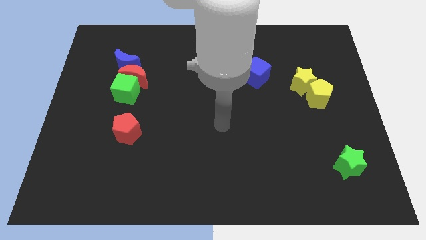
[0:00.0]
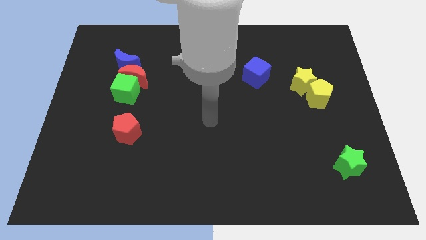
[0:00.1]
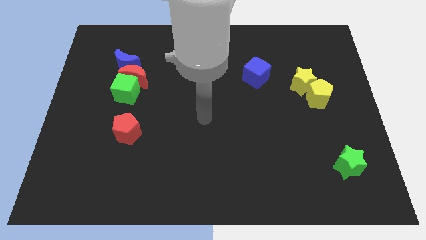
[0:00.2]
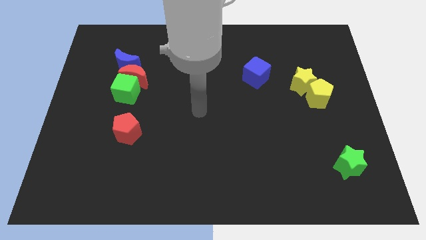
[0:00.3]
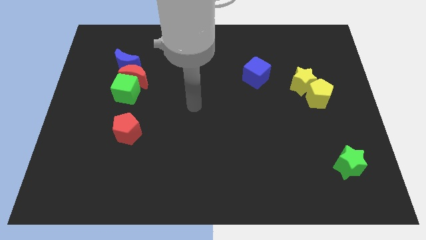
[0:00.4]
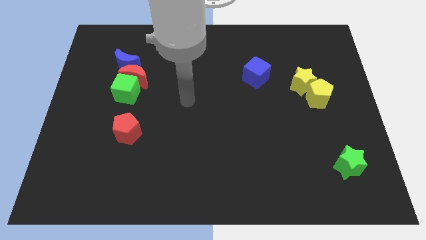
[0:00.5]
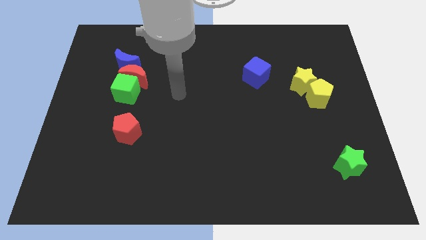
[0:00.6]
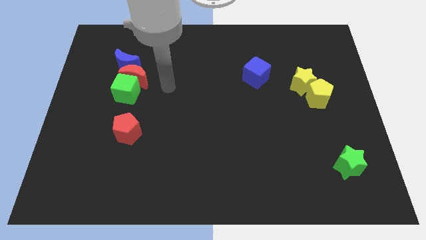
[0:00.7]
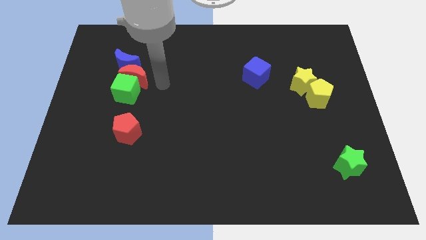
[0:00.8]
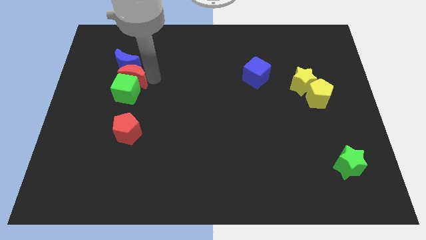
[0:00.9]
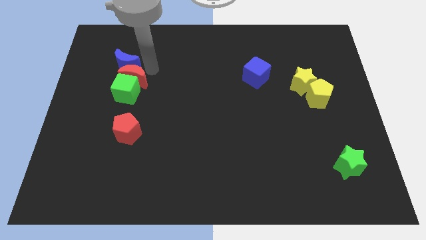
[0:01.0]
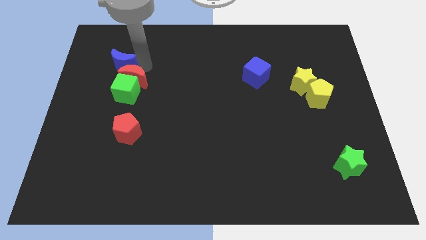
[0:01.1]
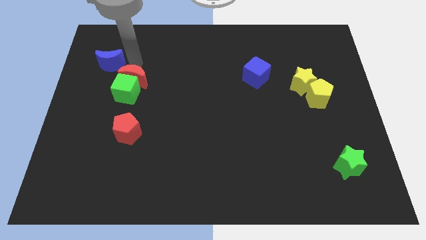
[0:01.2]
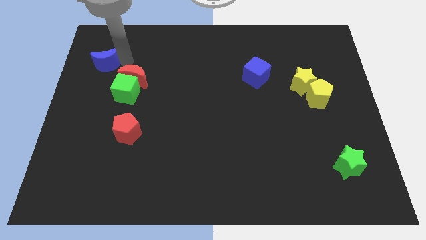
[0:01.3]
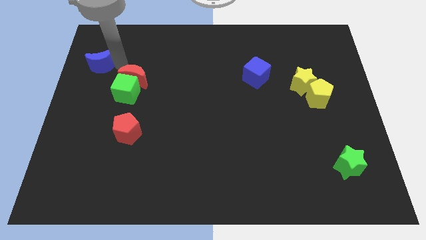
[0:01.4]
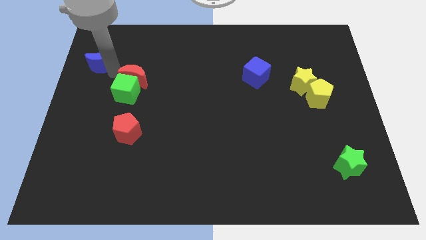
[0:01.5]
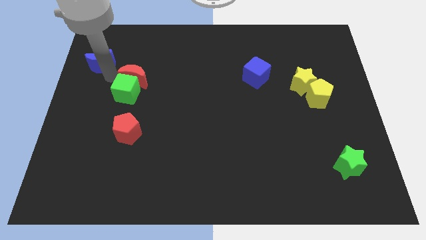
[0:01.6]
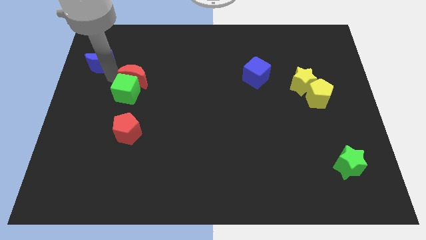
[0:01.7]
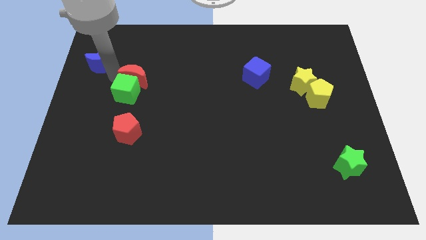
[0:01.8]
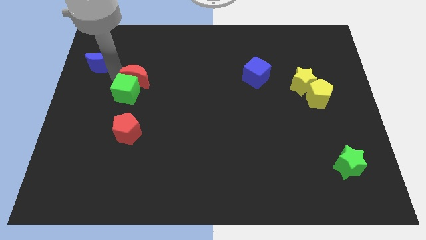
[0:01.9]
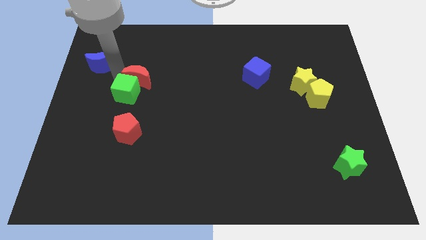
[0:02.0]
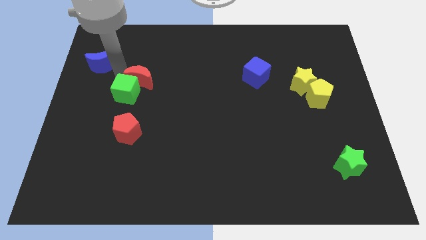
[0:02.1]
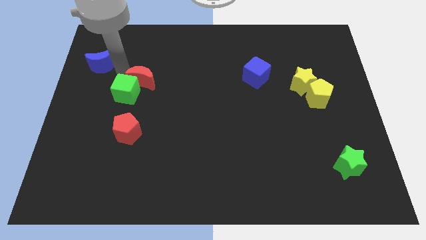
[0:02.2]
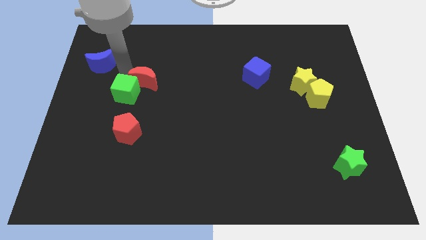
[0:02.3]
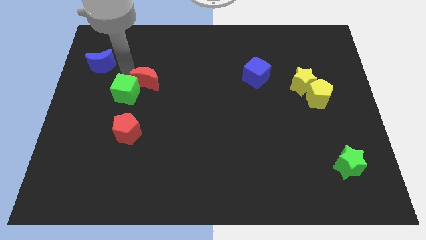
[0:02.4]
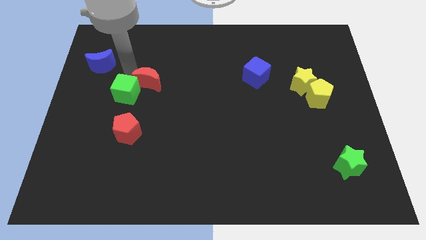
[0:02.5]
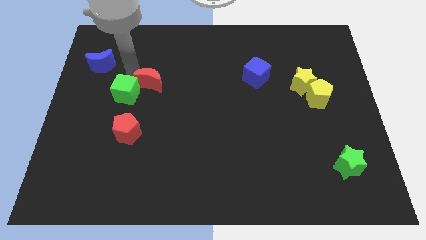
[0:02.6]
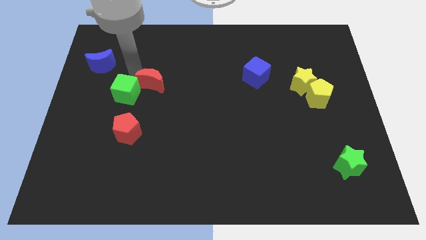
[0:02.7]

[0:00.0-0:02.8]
pull the red moon apart from the green cube and blue moon

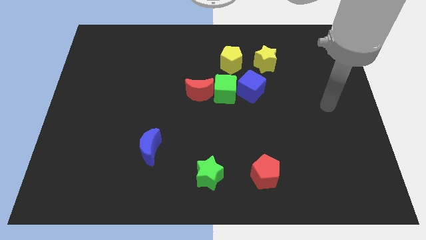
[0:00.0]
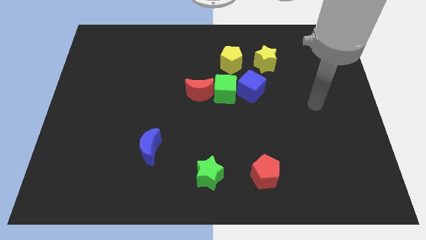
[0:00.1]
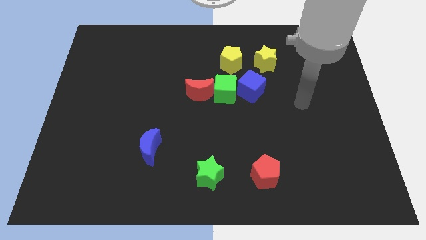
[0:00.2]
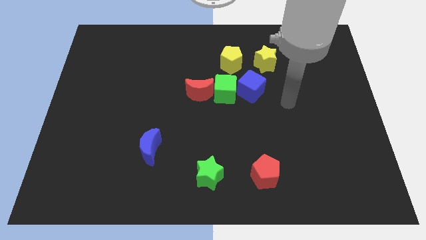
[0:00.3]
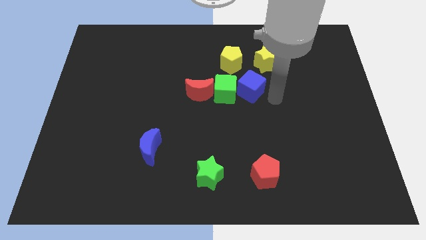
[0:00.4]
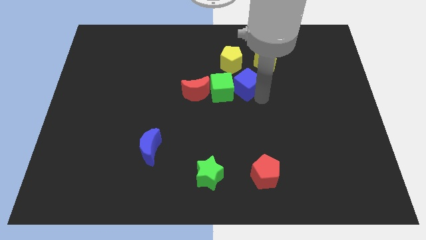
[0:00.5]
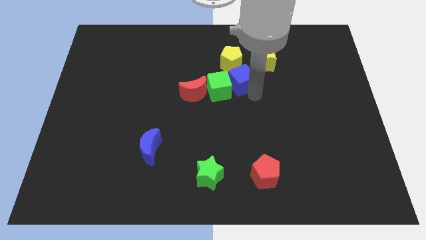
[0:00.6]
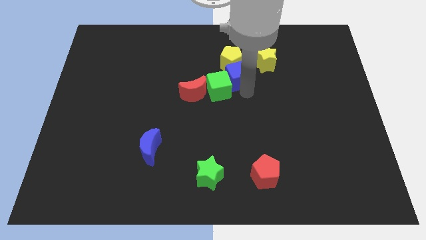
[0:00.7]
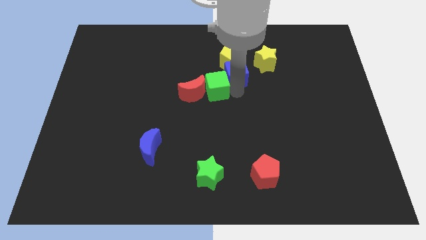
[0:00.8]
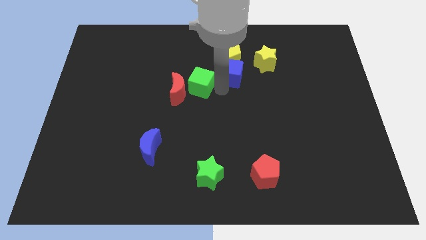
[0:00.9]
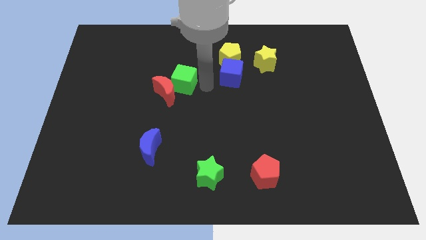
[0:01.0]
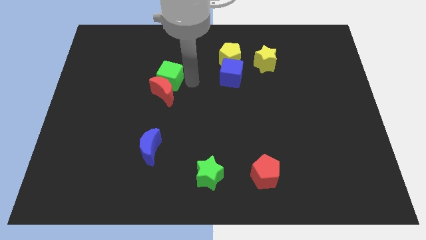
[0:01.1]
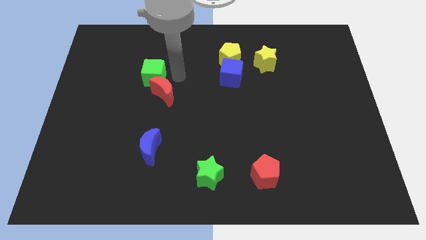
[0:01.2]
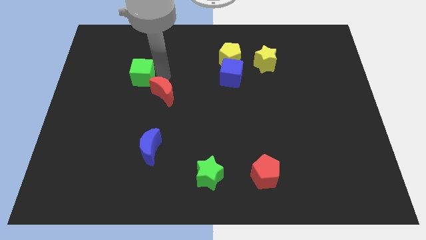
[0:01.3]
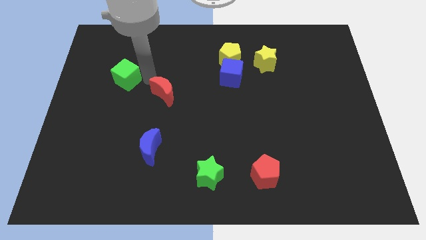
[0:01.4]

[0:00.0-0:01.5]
separate the red moon from the green cube

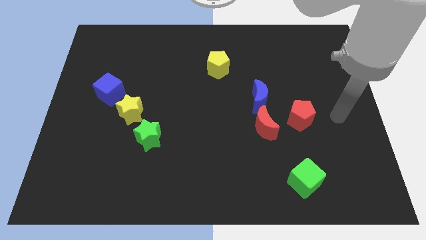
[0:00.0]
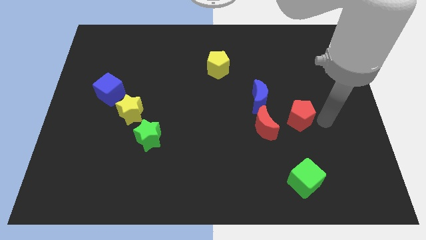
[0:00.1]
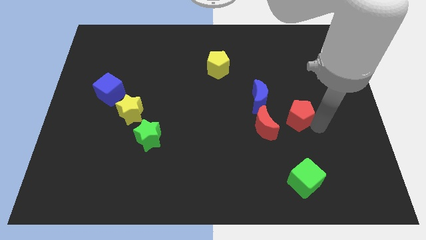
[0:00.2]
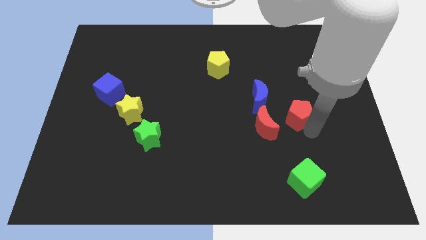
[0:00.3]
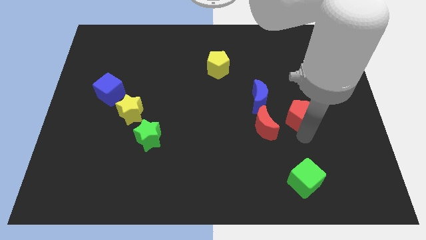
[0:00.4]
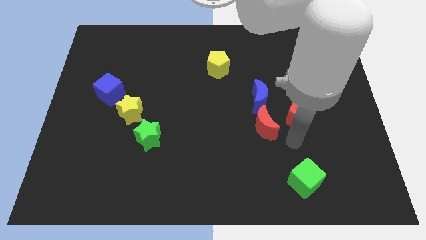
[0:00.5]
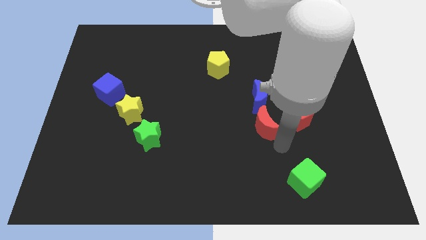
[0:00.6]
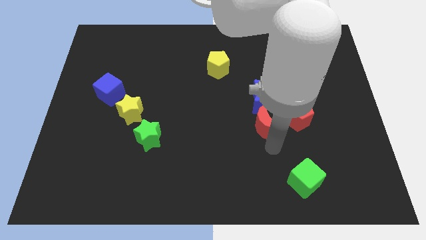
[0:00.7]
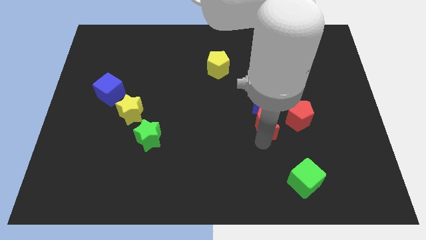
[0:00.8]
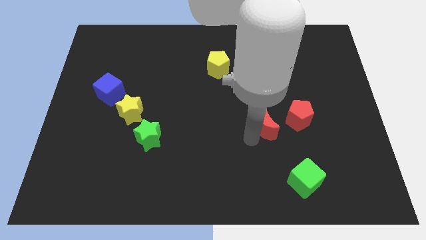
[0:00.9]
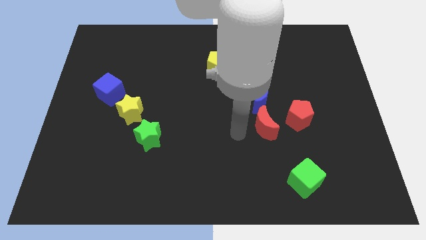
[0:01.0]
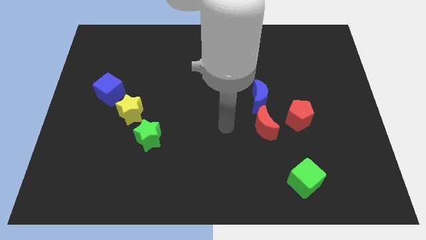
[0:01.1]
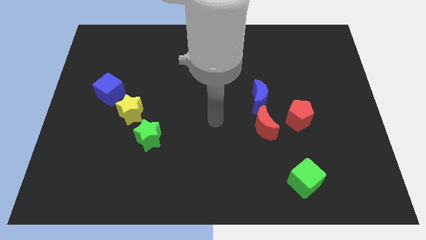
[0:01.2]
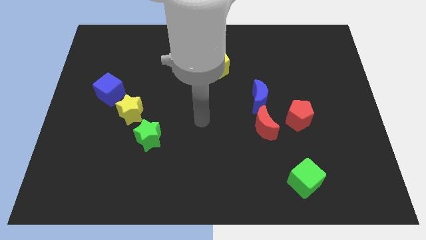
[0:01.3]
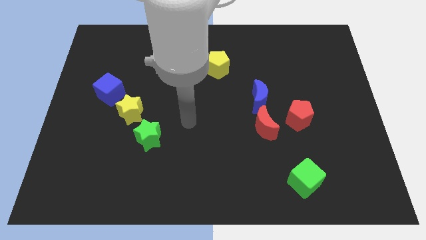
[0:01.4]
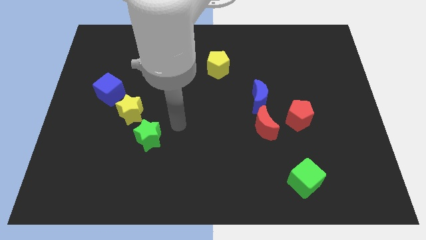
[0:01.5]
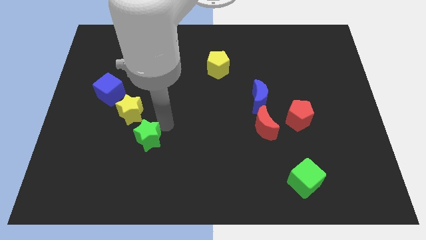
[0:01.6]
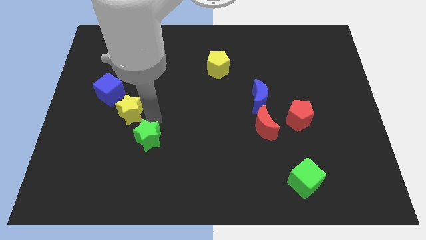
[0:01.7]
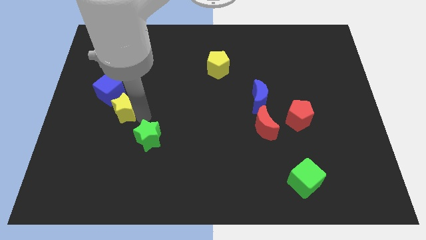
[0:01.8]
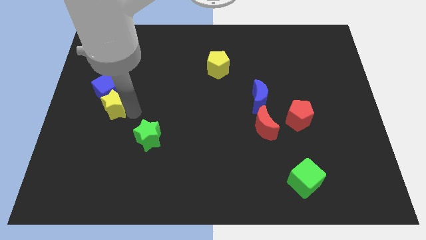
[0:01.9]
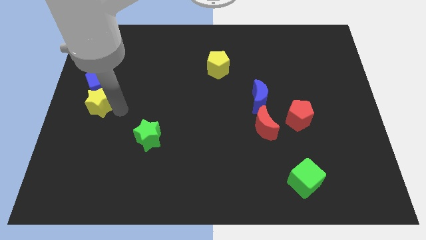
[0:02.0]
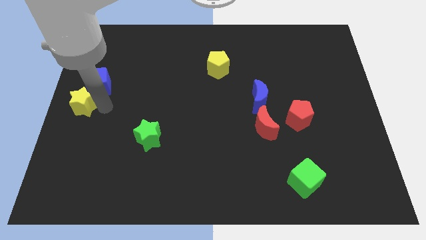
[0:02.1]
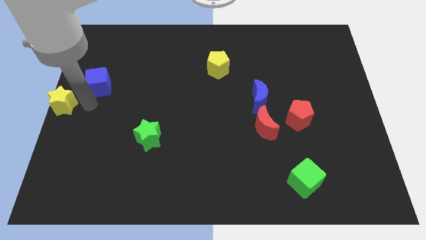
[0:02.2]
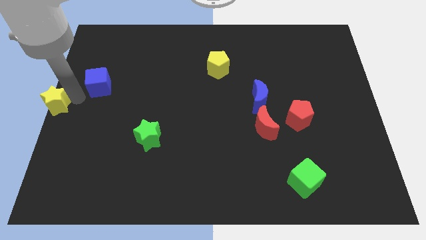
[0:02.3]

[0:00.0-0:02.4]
separate the blue cube from the yellow star

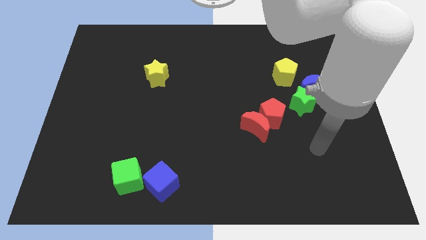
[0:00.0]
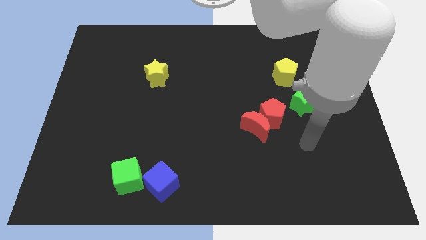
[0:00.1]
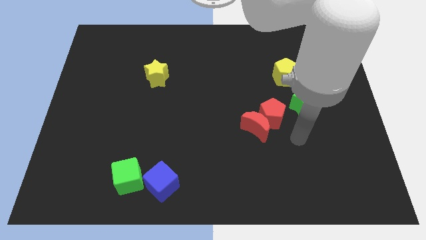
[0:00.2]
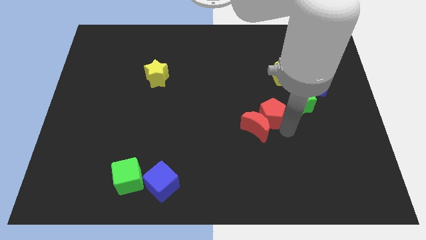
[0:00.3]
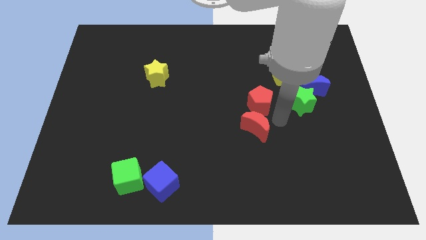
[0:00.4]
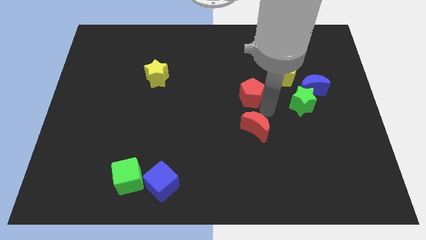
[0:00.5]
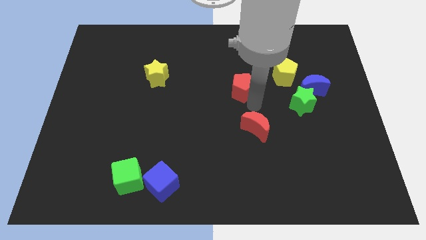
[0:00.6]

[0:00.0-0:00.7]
pull the red moon apart from the red pentagon

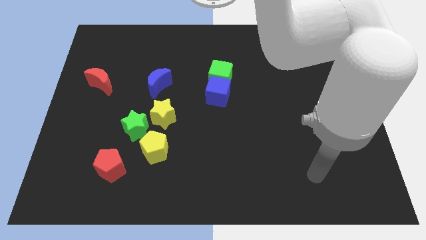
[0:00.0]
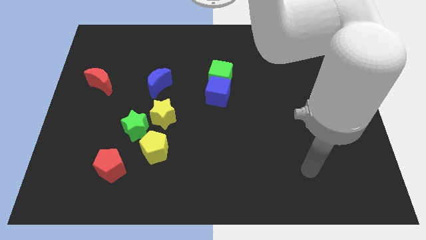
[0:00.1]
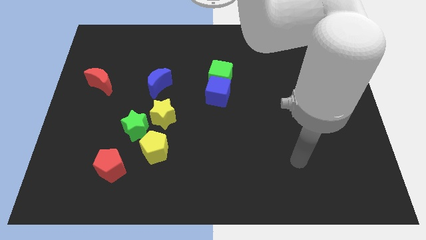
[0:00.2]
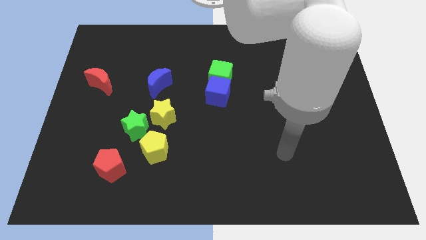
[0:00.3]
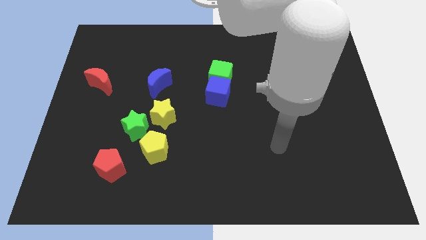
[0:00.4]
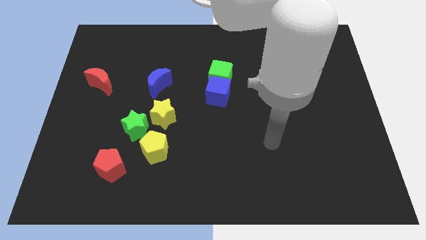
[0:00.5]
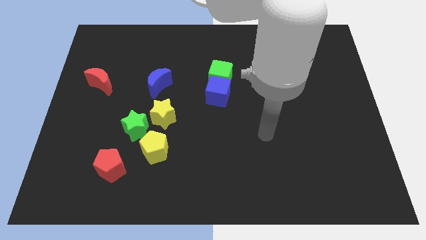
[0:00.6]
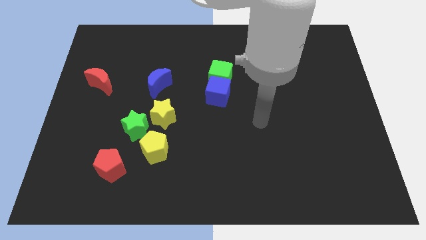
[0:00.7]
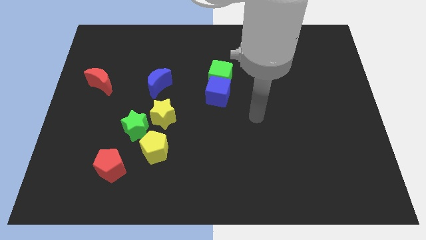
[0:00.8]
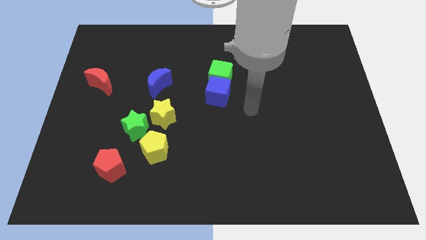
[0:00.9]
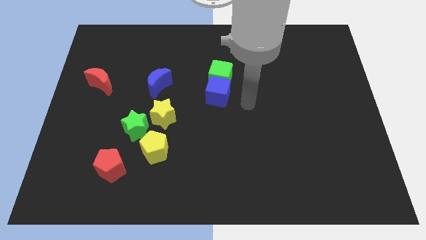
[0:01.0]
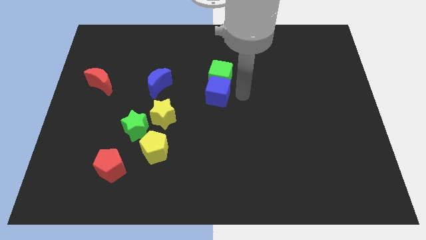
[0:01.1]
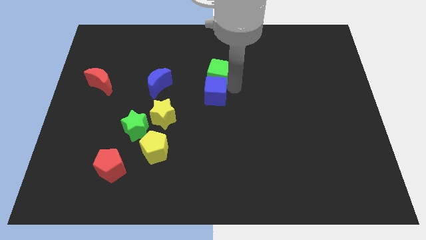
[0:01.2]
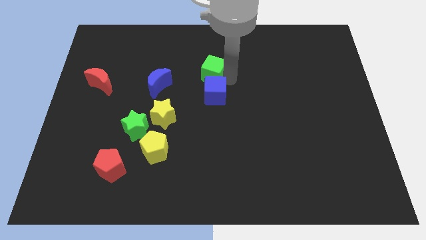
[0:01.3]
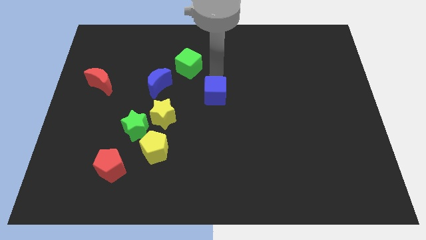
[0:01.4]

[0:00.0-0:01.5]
move the blue cube away from the green cube

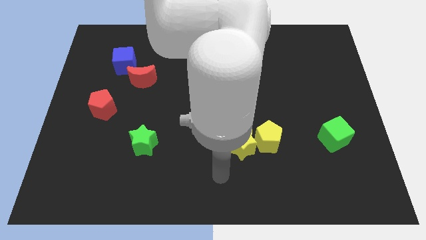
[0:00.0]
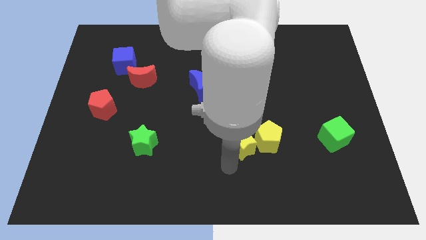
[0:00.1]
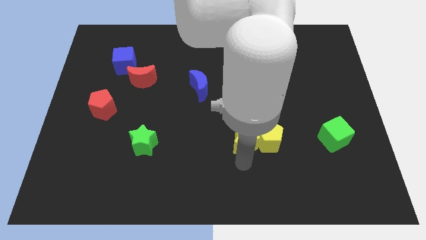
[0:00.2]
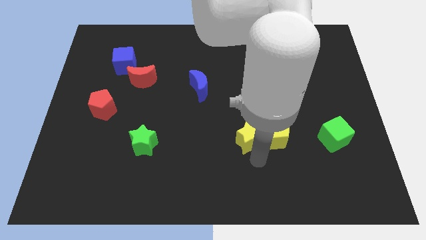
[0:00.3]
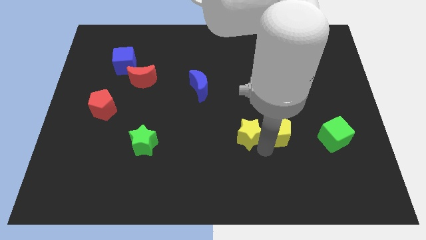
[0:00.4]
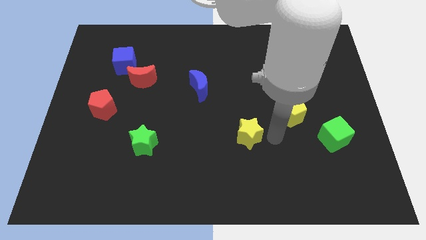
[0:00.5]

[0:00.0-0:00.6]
separate the yellow star from the yellow pentagon
